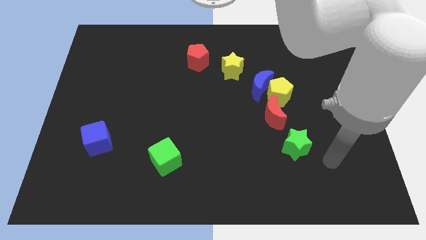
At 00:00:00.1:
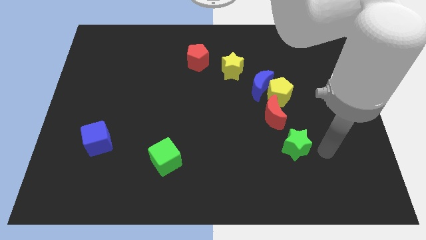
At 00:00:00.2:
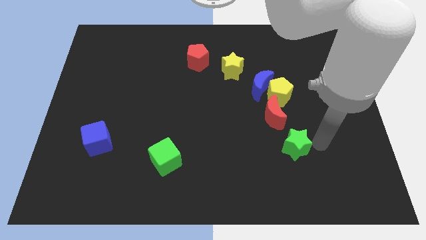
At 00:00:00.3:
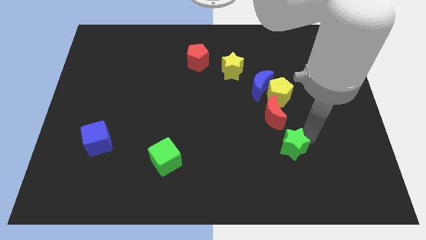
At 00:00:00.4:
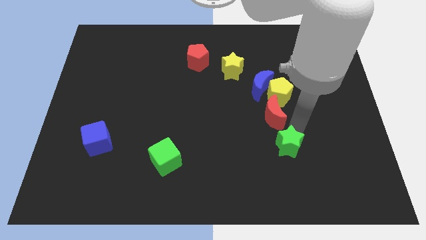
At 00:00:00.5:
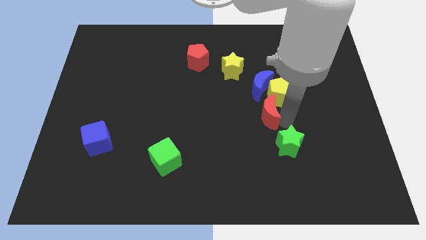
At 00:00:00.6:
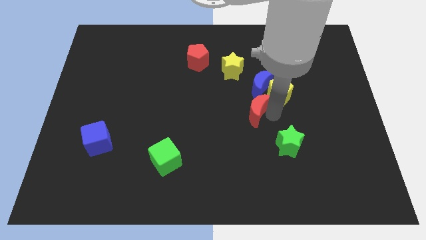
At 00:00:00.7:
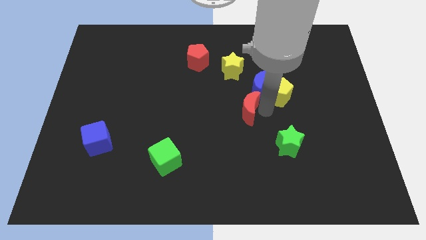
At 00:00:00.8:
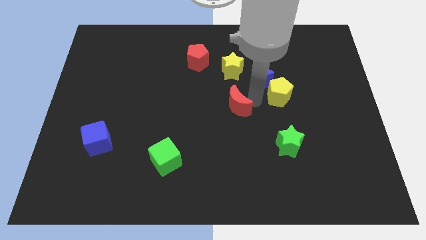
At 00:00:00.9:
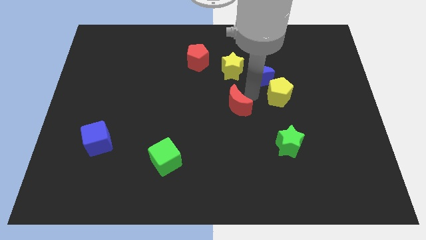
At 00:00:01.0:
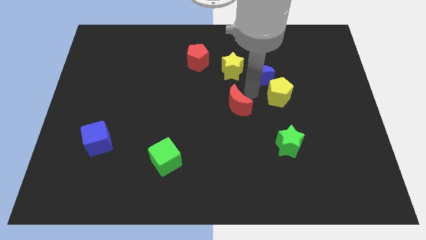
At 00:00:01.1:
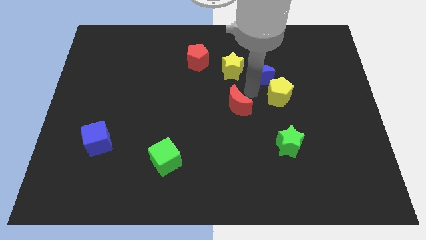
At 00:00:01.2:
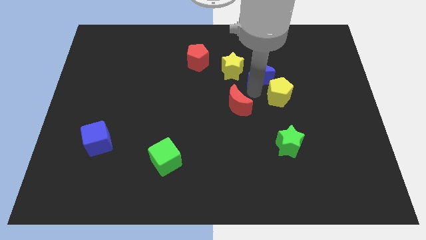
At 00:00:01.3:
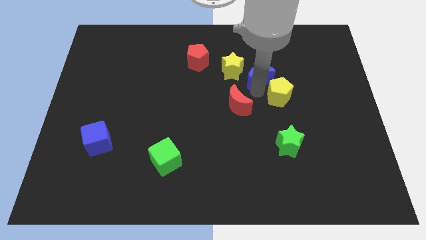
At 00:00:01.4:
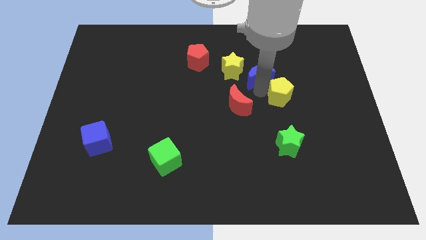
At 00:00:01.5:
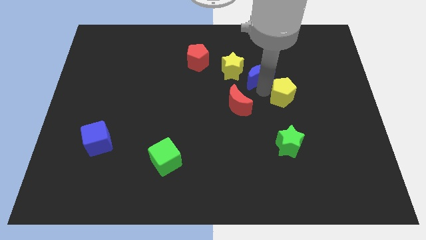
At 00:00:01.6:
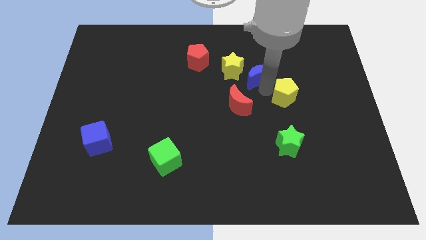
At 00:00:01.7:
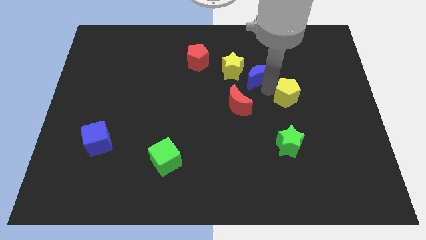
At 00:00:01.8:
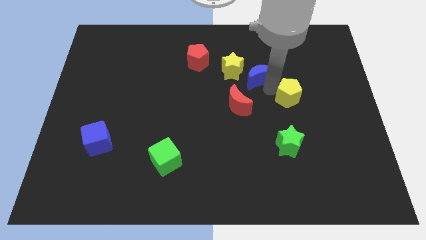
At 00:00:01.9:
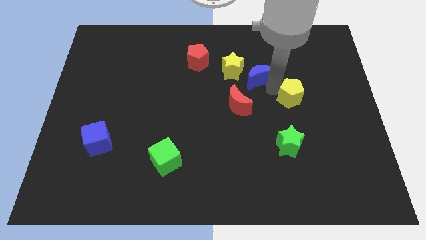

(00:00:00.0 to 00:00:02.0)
pull the yellow pentagon apart from the blue moon and red moon

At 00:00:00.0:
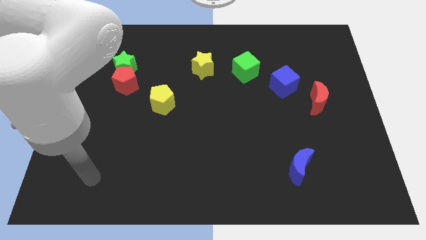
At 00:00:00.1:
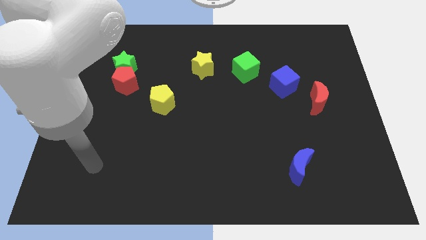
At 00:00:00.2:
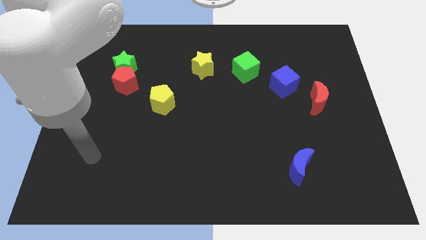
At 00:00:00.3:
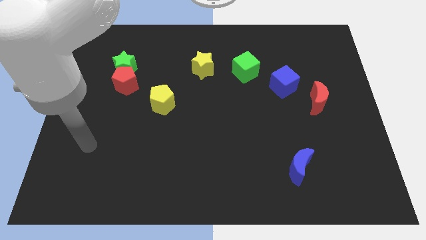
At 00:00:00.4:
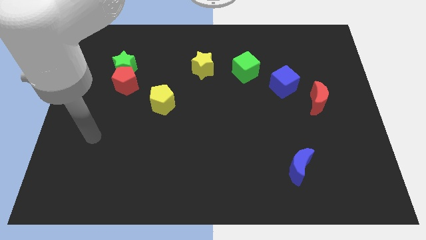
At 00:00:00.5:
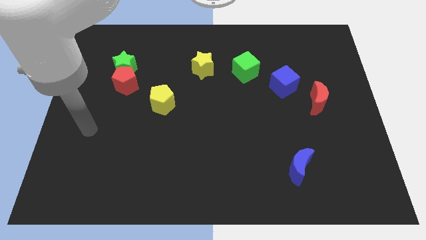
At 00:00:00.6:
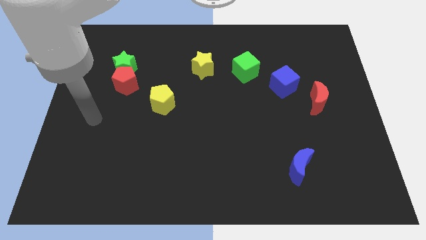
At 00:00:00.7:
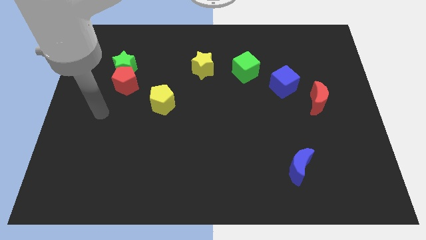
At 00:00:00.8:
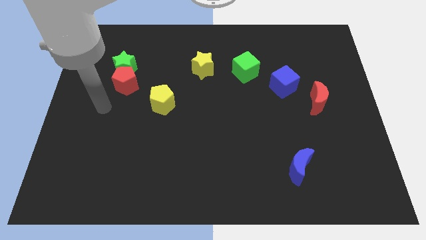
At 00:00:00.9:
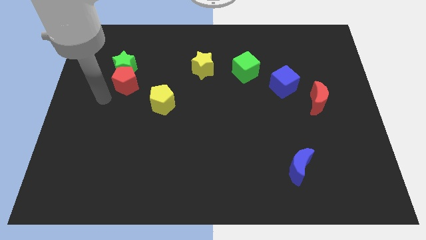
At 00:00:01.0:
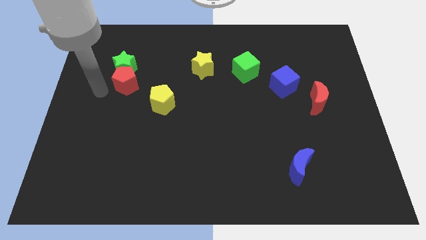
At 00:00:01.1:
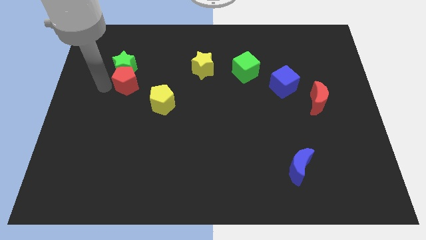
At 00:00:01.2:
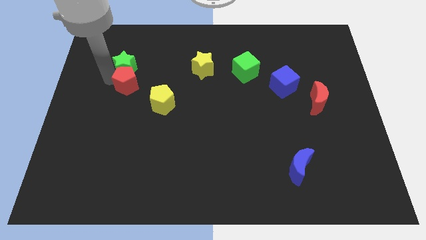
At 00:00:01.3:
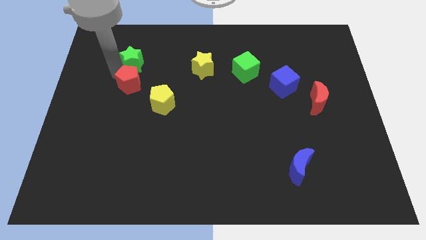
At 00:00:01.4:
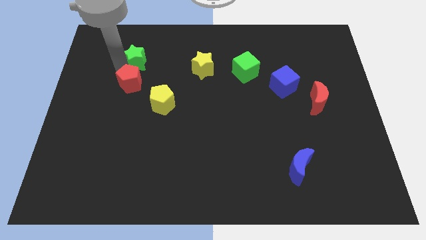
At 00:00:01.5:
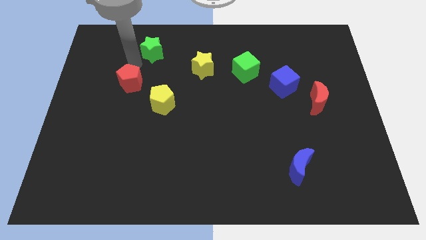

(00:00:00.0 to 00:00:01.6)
separate the red pentagon from the green star

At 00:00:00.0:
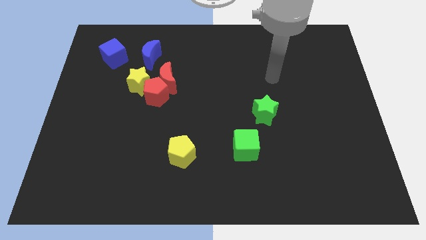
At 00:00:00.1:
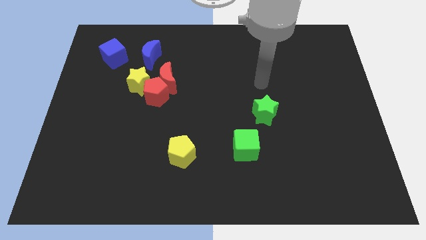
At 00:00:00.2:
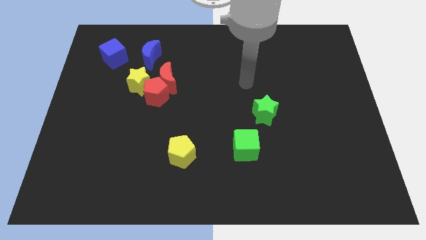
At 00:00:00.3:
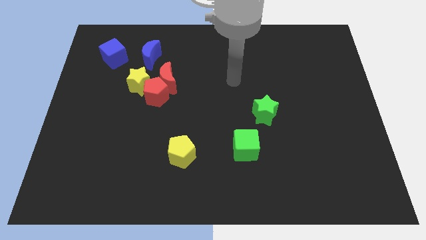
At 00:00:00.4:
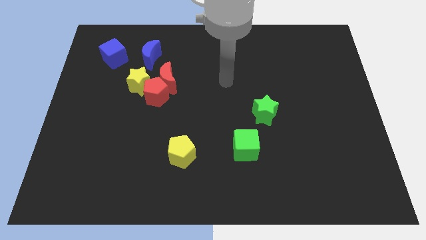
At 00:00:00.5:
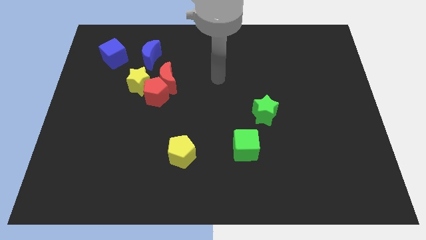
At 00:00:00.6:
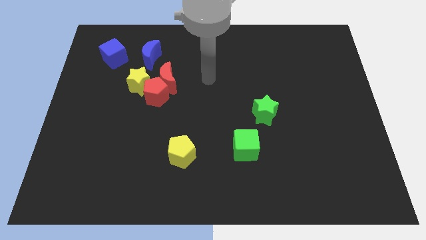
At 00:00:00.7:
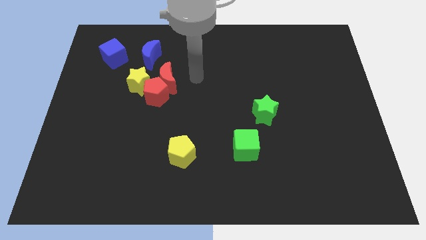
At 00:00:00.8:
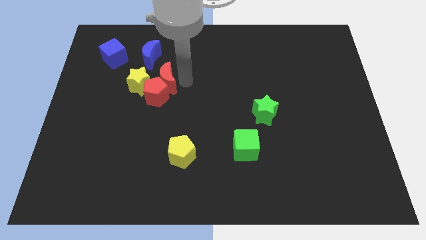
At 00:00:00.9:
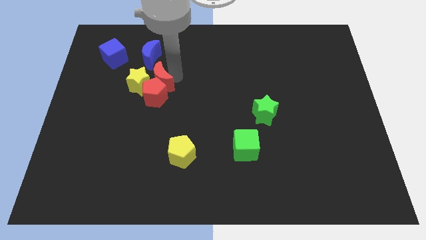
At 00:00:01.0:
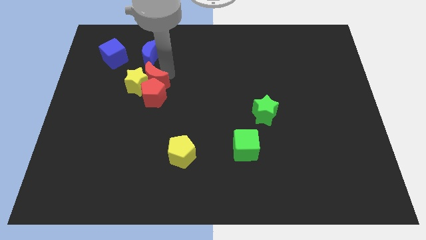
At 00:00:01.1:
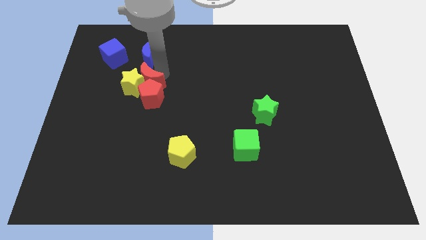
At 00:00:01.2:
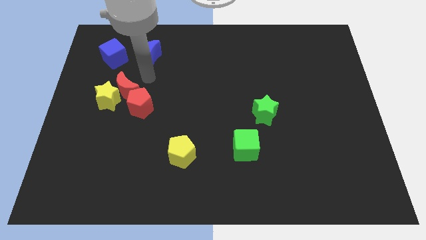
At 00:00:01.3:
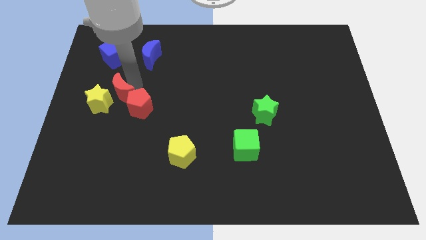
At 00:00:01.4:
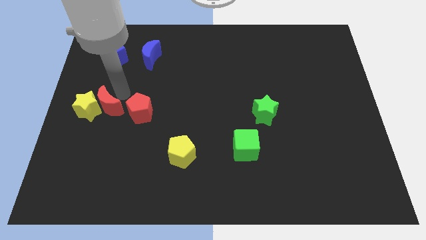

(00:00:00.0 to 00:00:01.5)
pull the red pentagon apart from the red moon and yellow star

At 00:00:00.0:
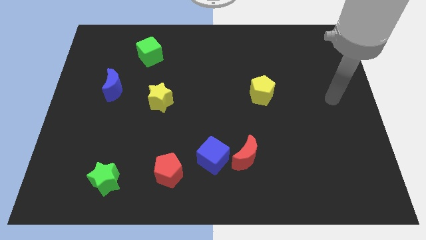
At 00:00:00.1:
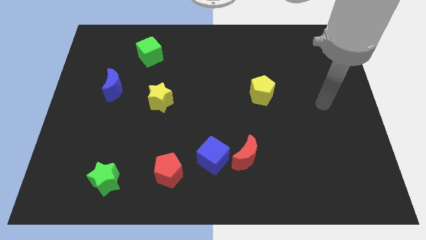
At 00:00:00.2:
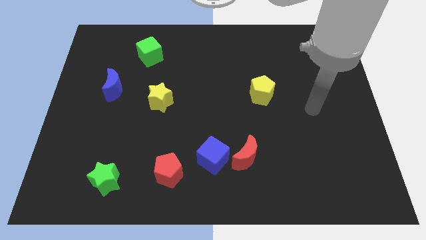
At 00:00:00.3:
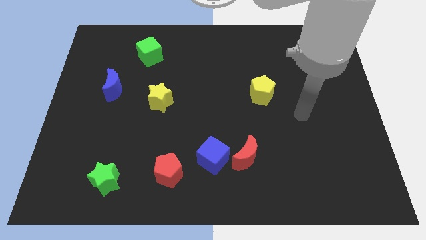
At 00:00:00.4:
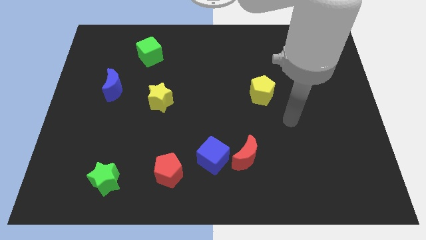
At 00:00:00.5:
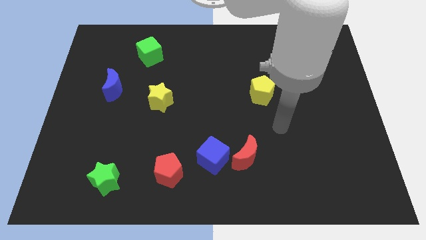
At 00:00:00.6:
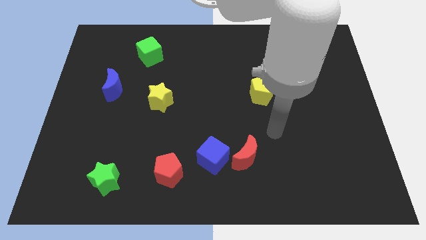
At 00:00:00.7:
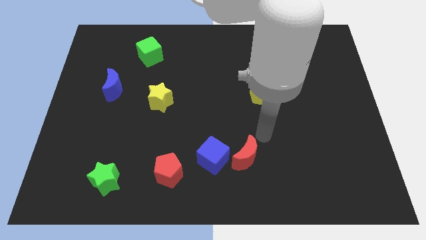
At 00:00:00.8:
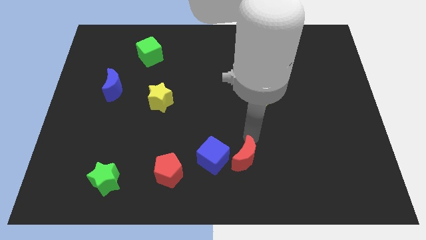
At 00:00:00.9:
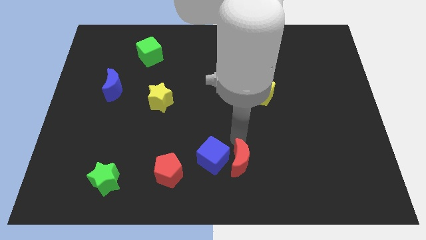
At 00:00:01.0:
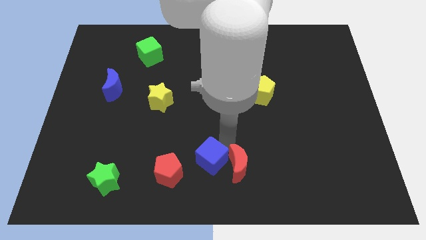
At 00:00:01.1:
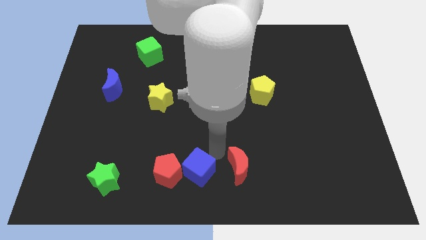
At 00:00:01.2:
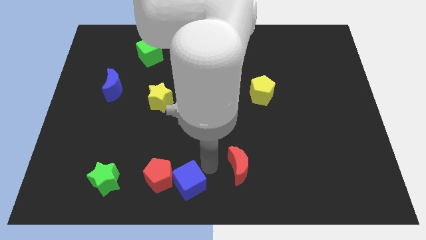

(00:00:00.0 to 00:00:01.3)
pull the red moon apart from the blue cube

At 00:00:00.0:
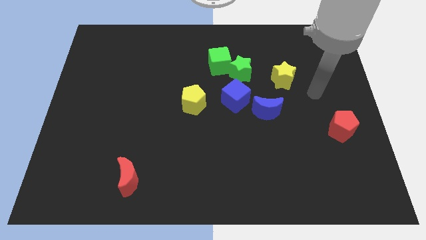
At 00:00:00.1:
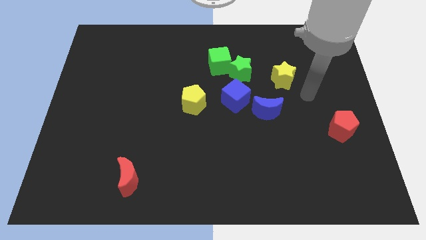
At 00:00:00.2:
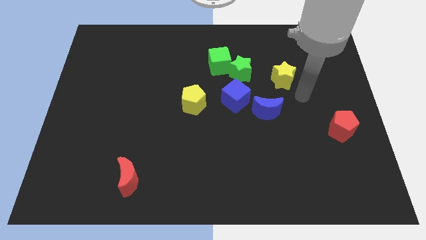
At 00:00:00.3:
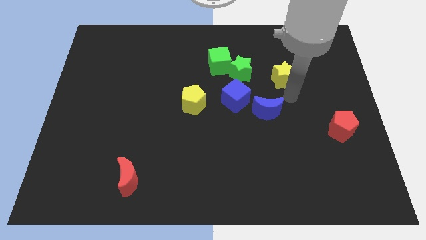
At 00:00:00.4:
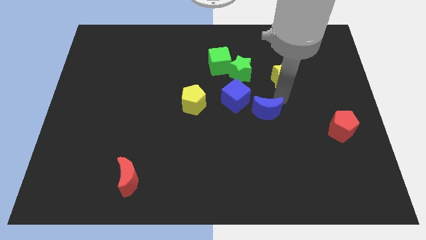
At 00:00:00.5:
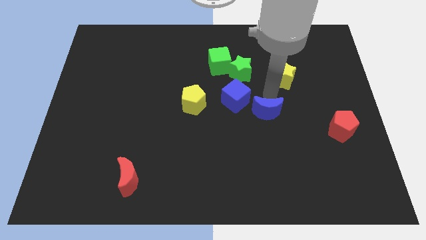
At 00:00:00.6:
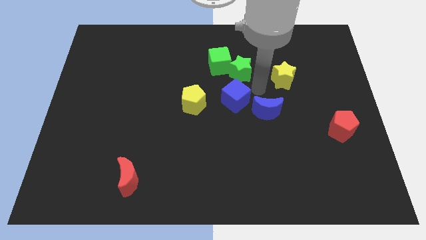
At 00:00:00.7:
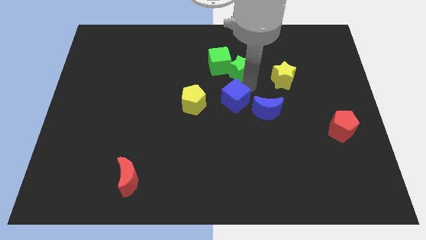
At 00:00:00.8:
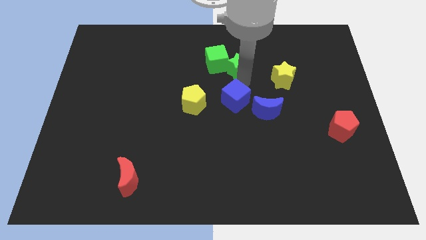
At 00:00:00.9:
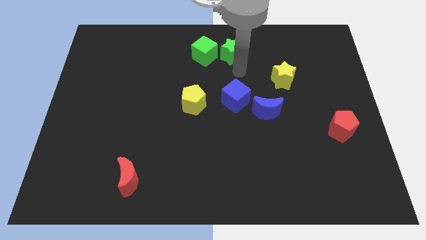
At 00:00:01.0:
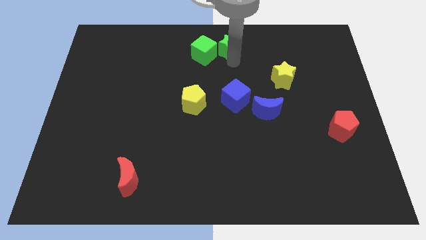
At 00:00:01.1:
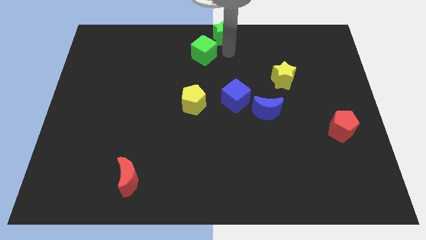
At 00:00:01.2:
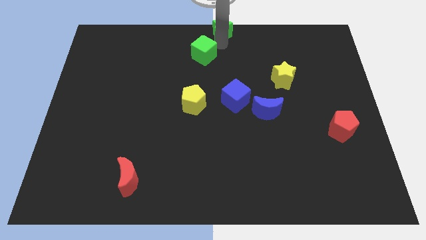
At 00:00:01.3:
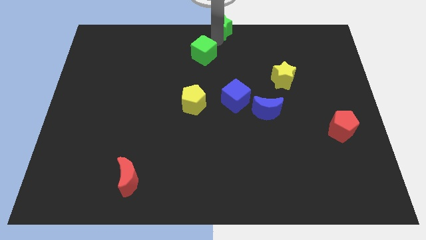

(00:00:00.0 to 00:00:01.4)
pull the green cube apart from the green star

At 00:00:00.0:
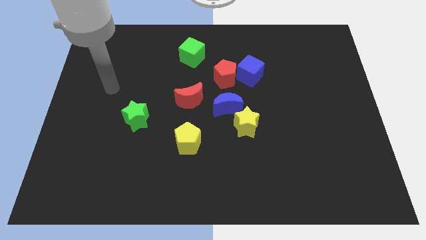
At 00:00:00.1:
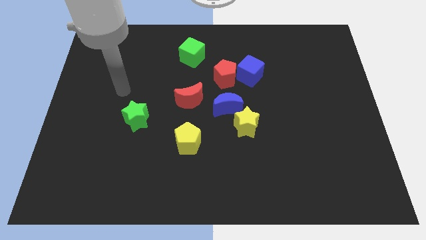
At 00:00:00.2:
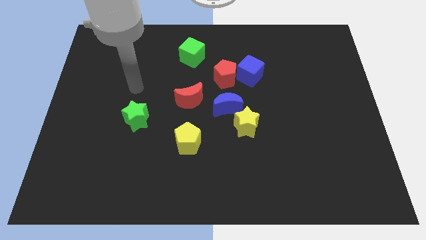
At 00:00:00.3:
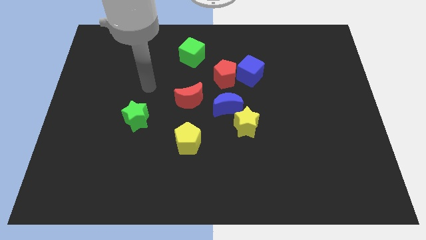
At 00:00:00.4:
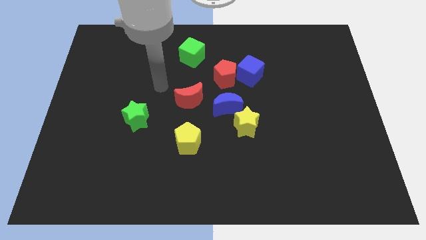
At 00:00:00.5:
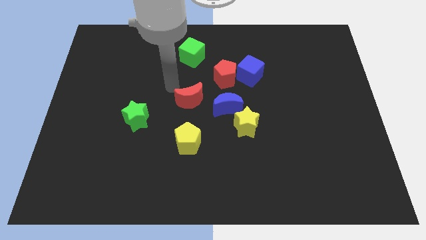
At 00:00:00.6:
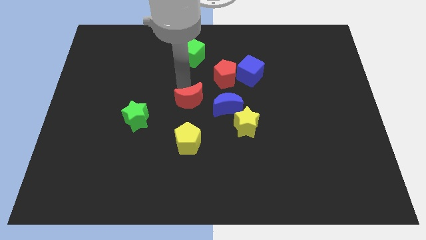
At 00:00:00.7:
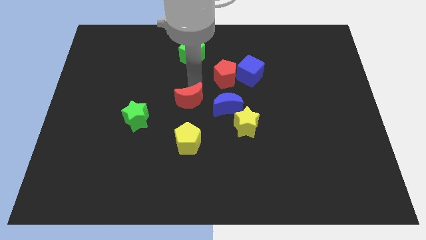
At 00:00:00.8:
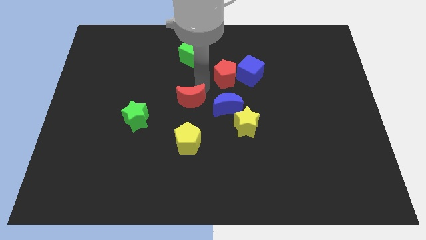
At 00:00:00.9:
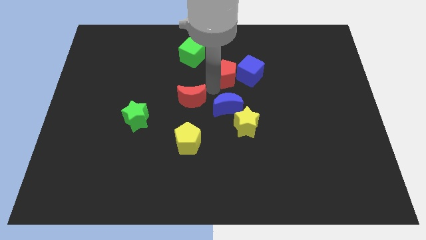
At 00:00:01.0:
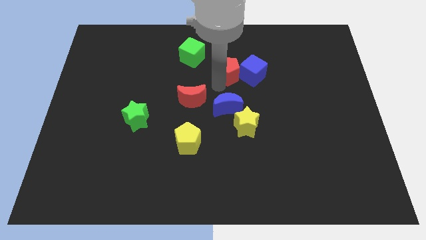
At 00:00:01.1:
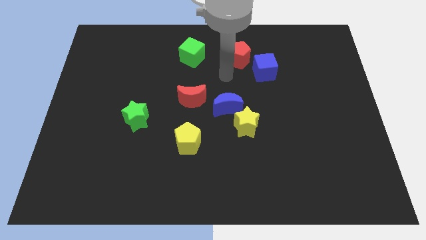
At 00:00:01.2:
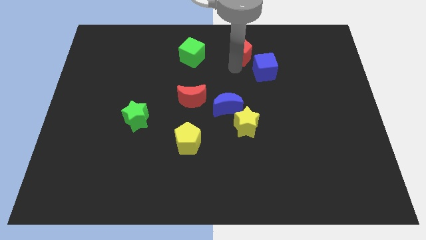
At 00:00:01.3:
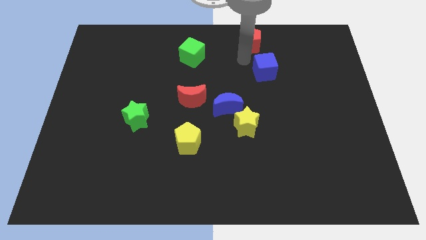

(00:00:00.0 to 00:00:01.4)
pull the blue cube apart from the red pentagon
